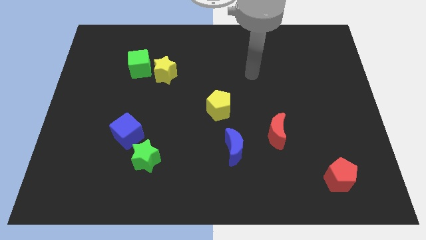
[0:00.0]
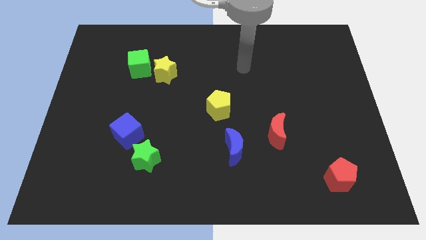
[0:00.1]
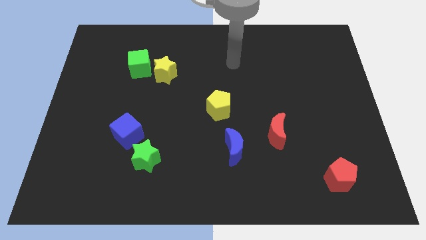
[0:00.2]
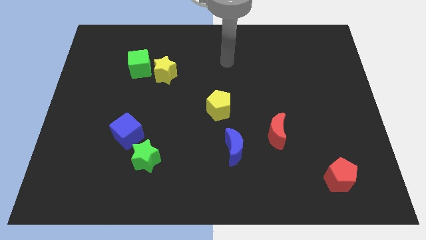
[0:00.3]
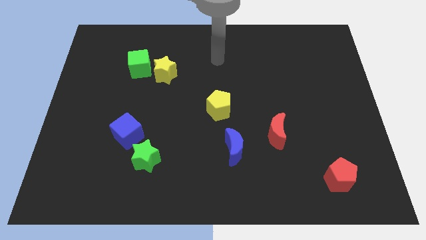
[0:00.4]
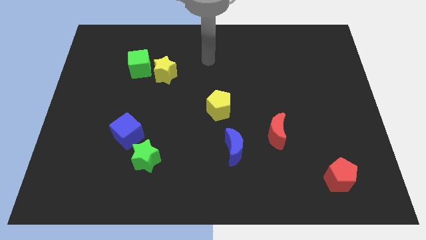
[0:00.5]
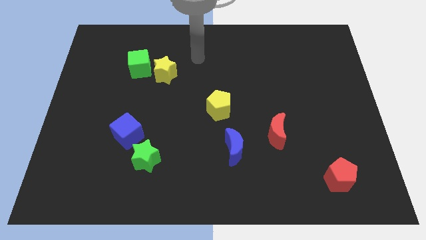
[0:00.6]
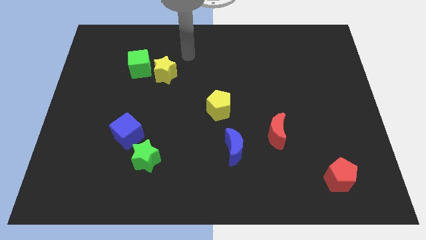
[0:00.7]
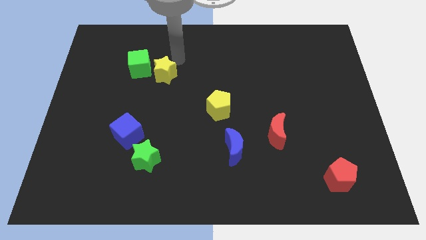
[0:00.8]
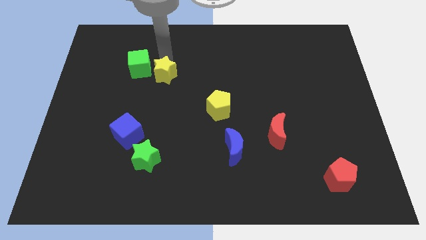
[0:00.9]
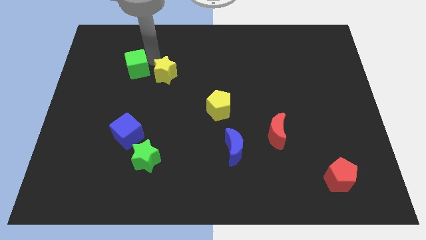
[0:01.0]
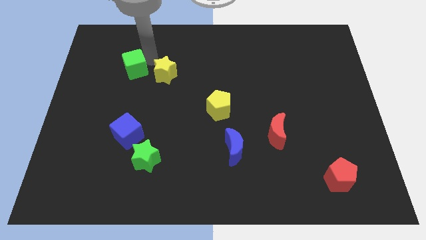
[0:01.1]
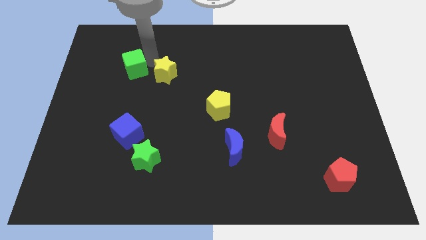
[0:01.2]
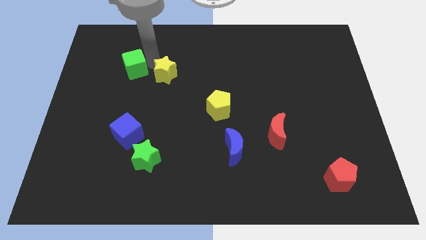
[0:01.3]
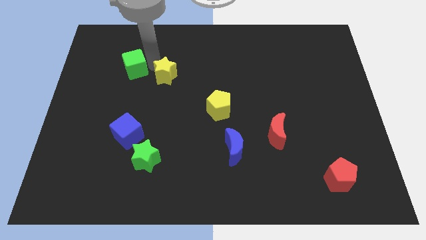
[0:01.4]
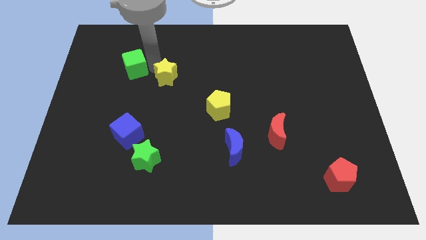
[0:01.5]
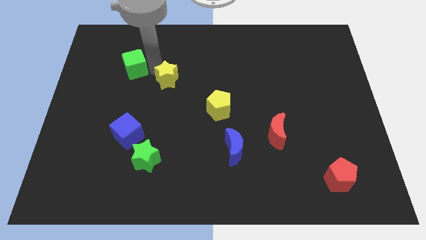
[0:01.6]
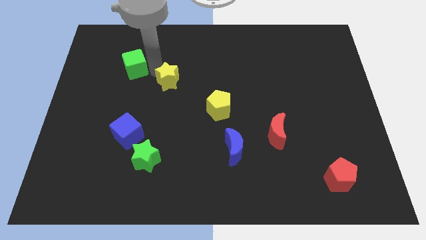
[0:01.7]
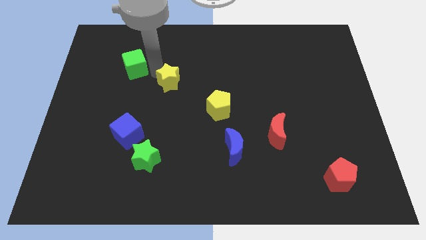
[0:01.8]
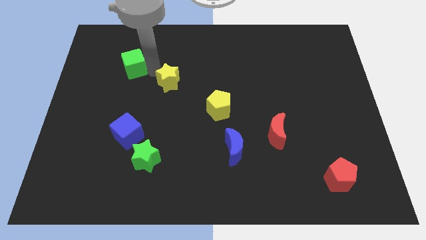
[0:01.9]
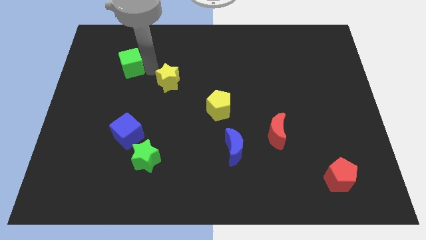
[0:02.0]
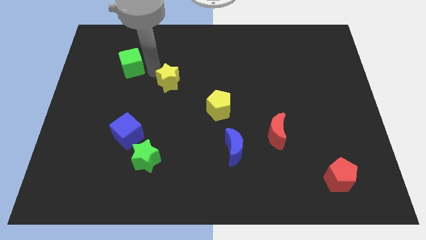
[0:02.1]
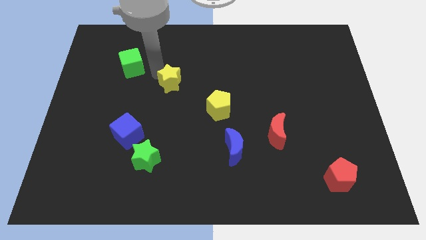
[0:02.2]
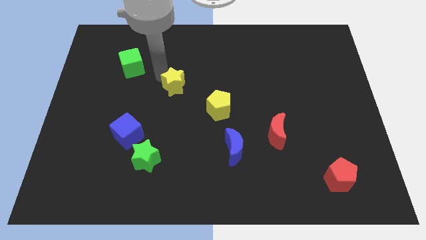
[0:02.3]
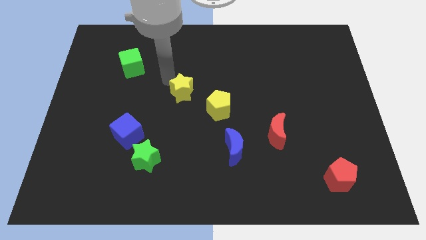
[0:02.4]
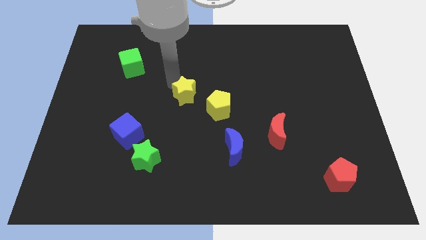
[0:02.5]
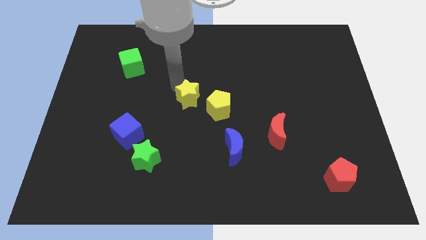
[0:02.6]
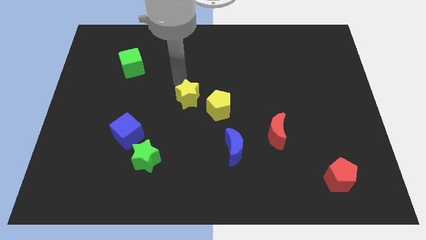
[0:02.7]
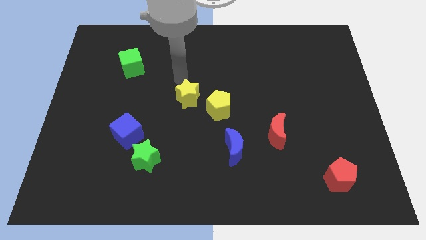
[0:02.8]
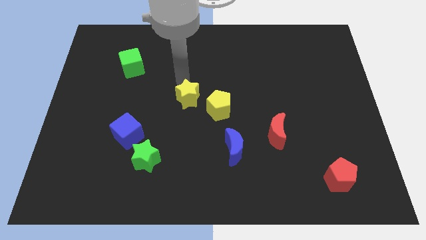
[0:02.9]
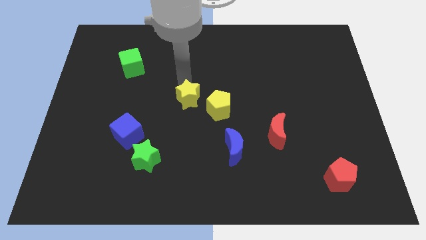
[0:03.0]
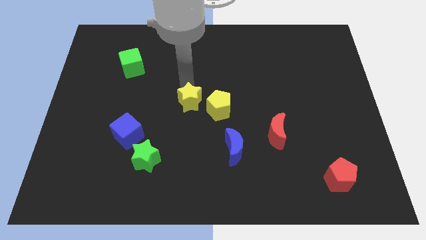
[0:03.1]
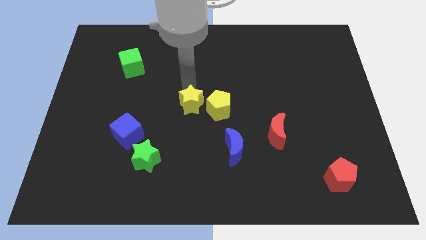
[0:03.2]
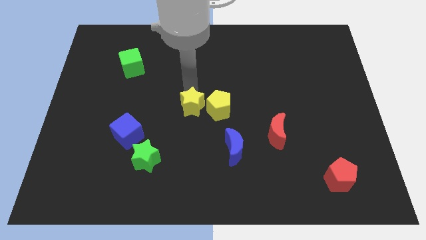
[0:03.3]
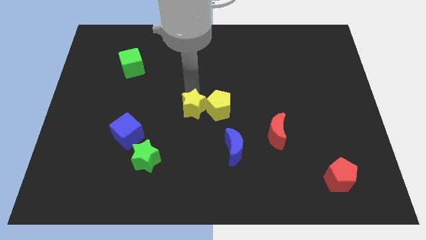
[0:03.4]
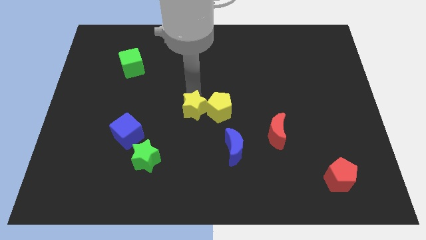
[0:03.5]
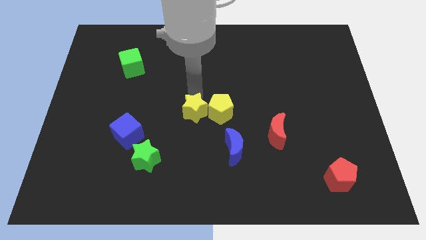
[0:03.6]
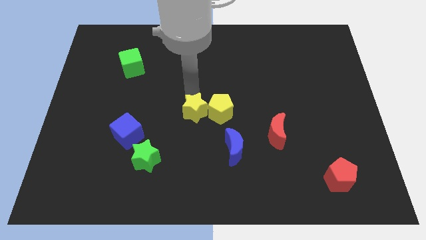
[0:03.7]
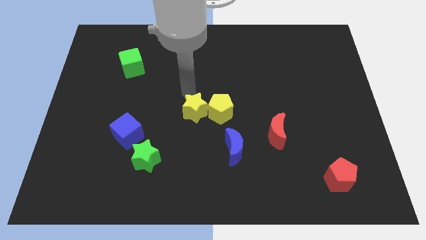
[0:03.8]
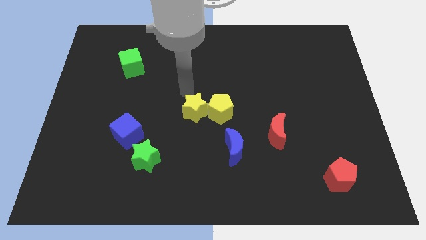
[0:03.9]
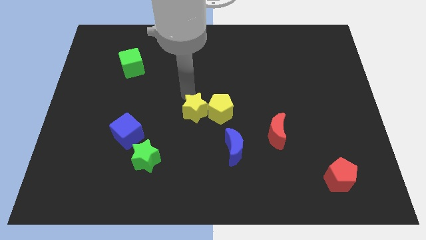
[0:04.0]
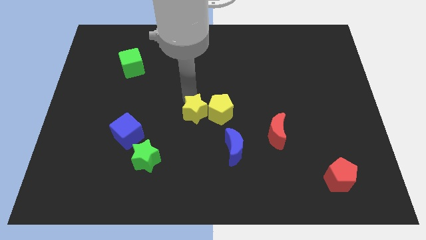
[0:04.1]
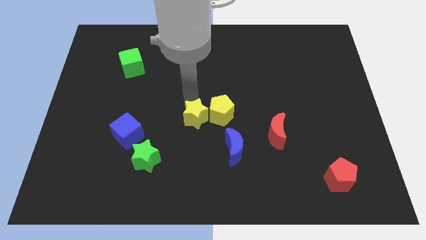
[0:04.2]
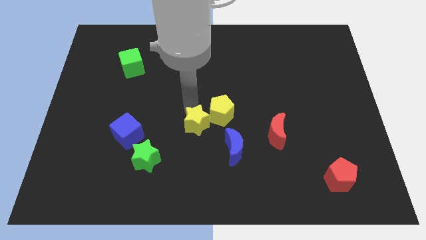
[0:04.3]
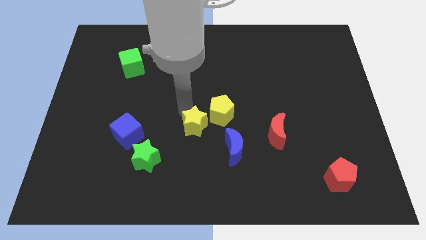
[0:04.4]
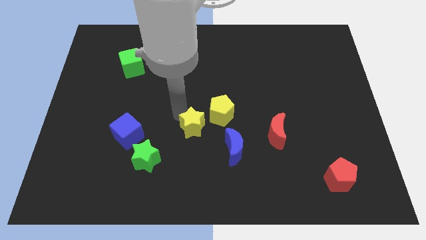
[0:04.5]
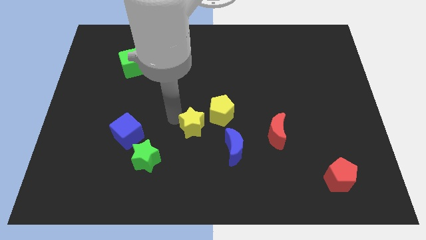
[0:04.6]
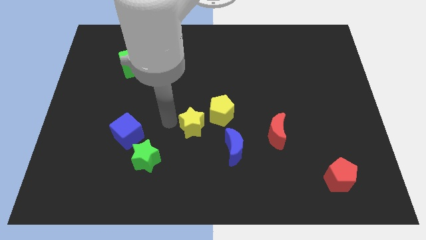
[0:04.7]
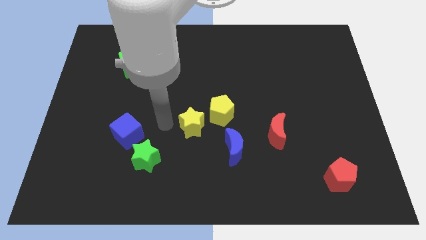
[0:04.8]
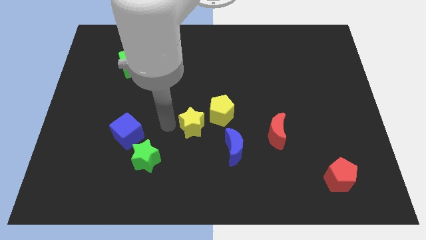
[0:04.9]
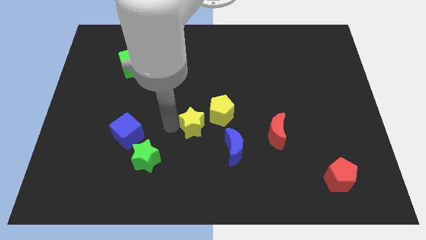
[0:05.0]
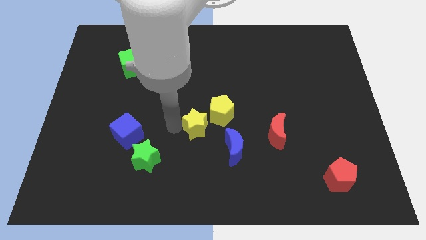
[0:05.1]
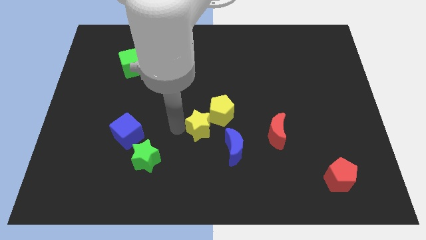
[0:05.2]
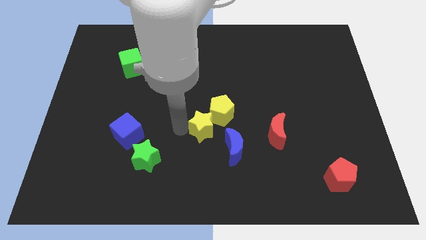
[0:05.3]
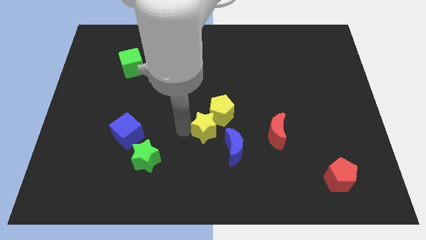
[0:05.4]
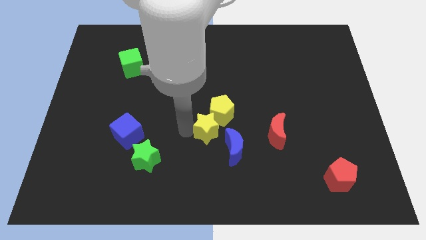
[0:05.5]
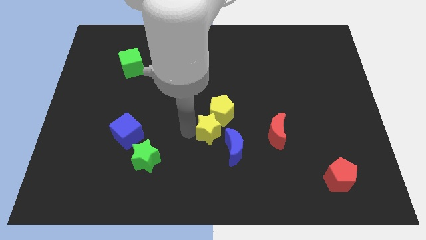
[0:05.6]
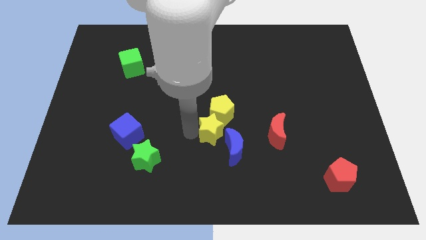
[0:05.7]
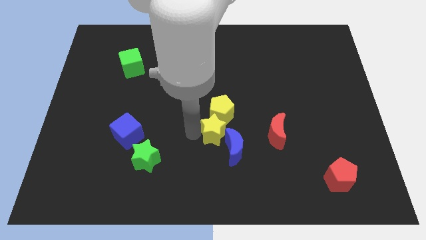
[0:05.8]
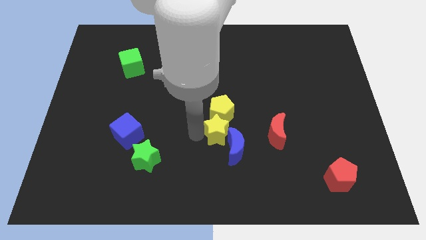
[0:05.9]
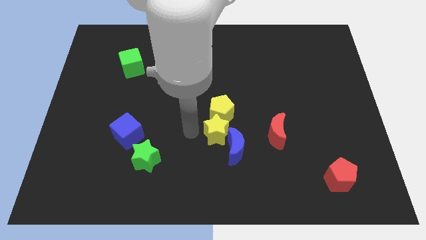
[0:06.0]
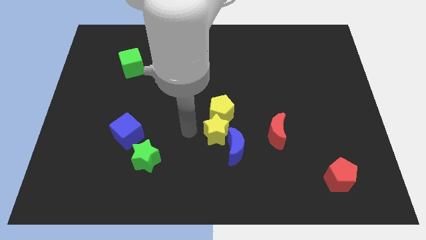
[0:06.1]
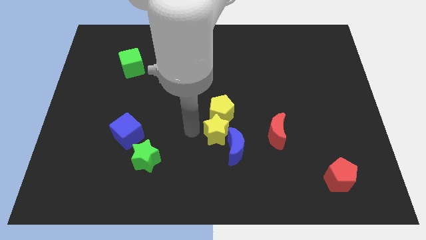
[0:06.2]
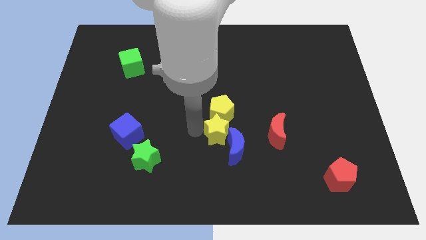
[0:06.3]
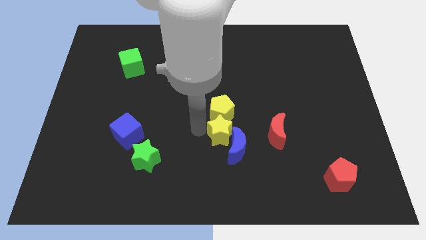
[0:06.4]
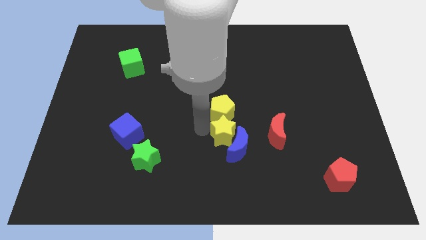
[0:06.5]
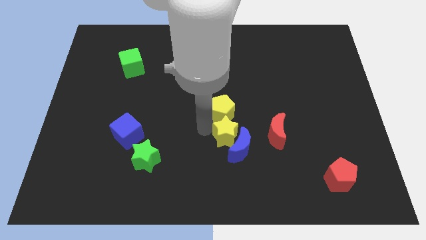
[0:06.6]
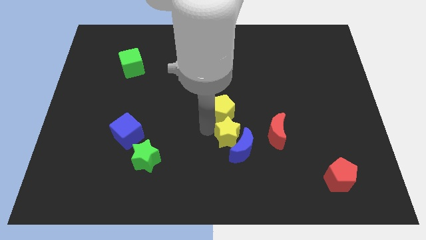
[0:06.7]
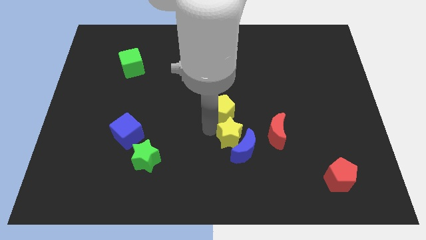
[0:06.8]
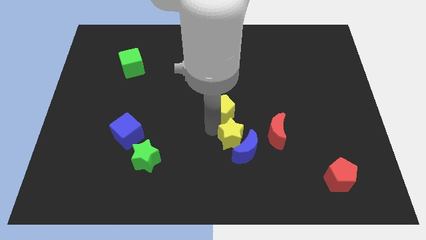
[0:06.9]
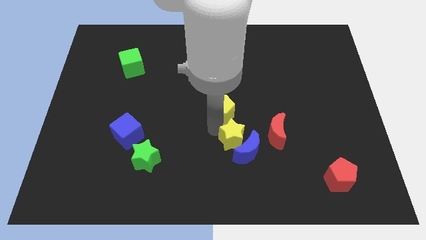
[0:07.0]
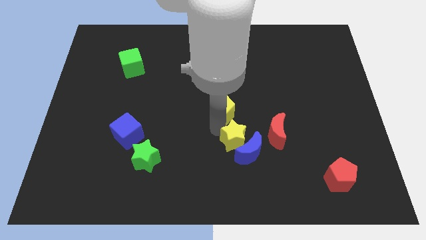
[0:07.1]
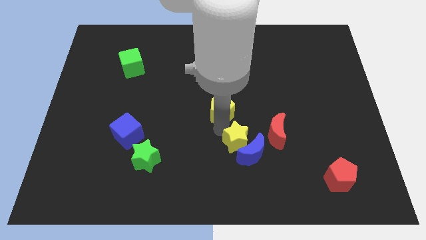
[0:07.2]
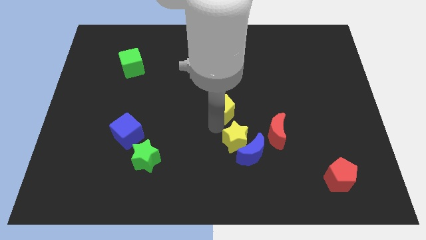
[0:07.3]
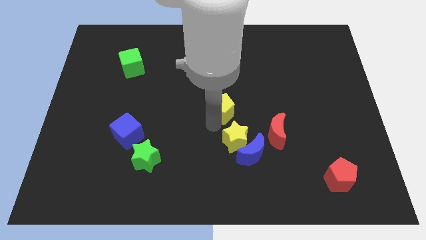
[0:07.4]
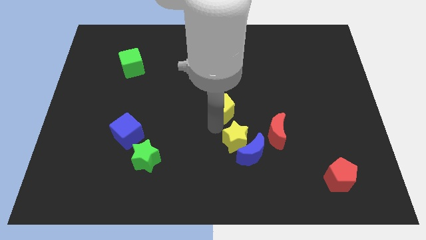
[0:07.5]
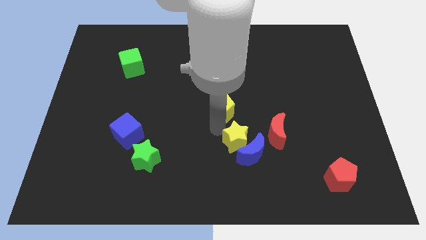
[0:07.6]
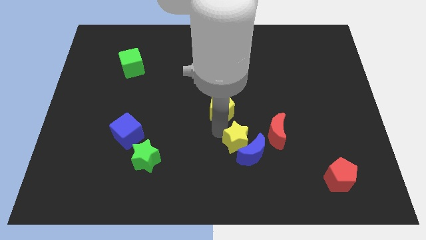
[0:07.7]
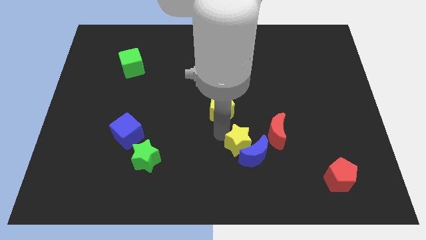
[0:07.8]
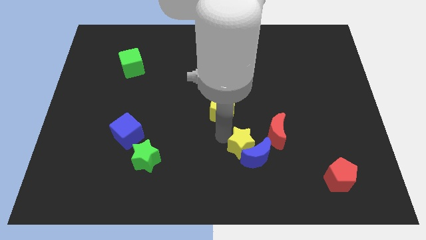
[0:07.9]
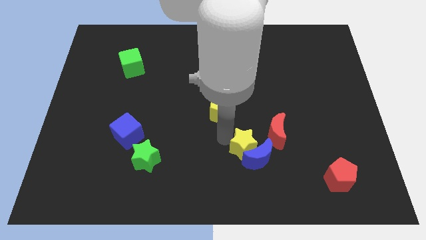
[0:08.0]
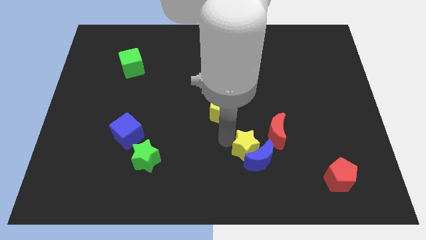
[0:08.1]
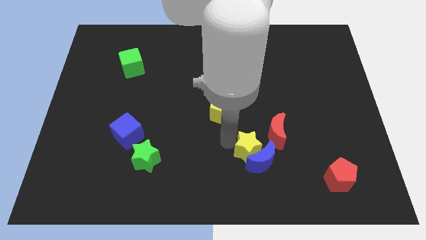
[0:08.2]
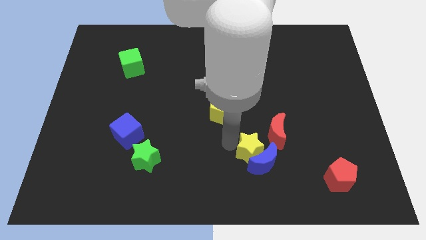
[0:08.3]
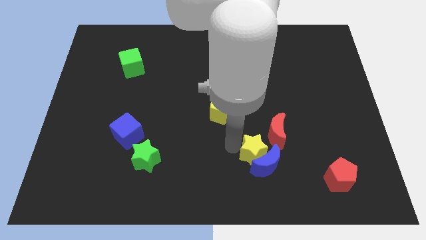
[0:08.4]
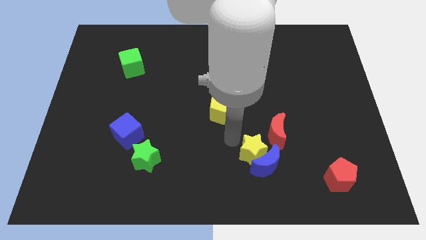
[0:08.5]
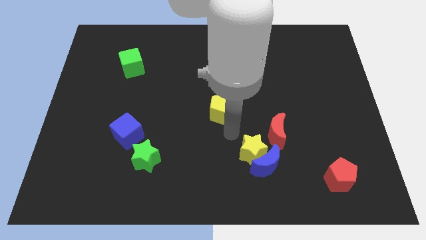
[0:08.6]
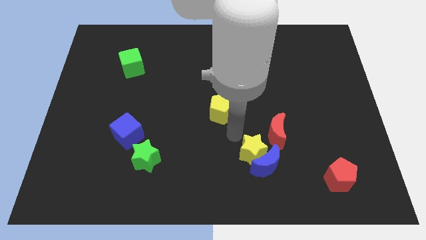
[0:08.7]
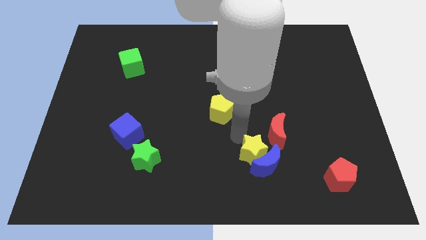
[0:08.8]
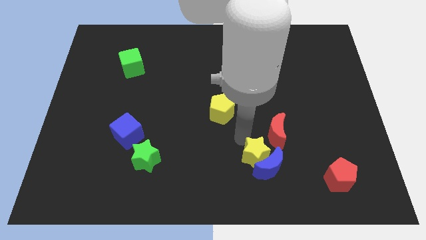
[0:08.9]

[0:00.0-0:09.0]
slide the yellow star to the bottom side of the red moon
